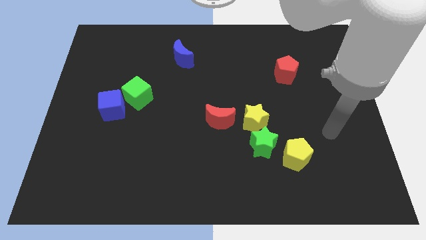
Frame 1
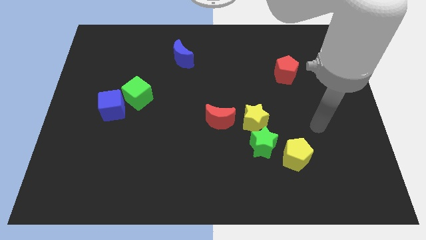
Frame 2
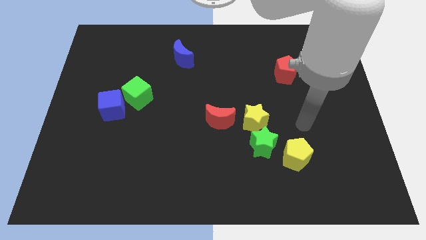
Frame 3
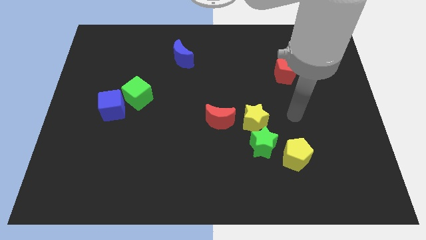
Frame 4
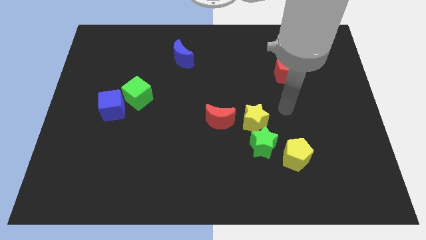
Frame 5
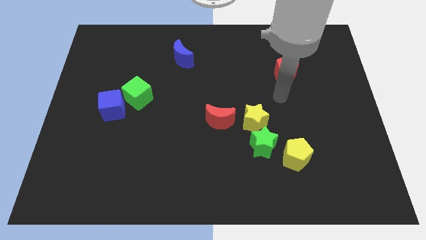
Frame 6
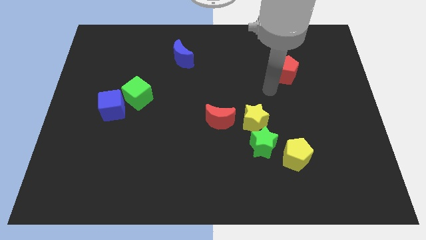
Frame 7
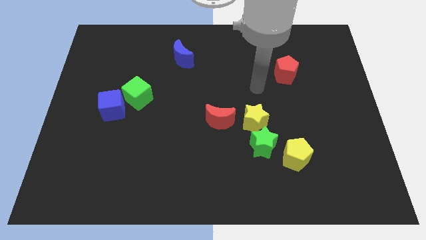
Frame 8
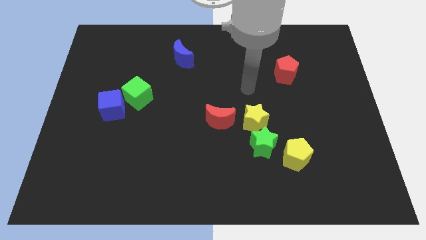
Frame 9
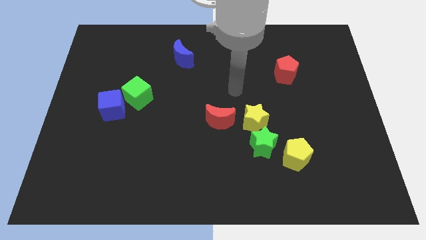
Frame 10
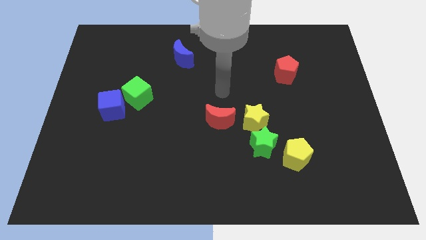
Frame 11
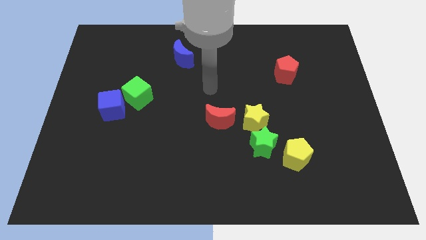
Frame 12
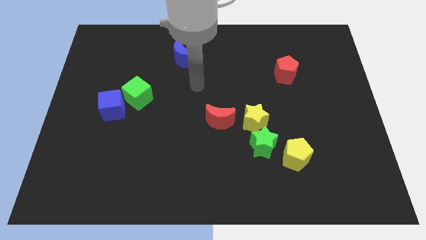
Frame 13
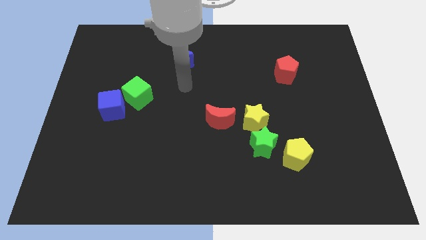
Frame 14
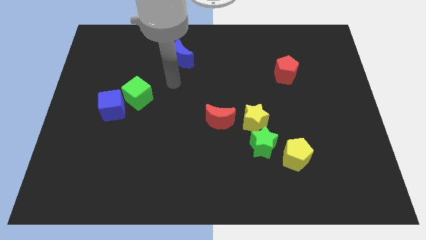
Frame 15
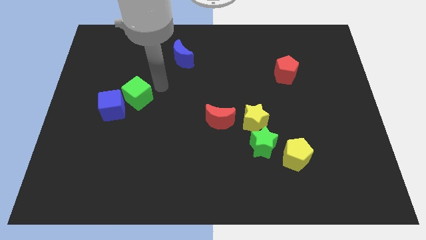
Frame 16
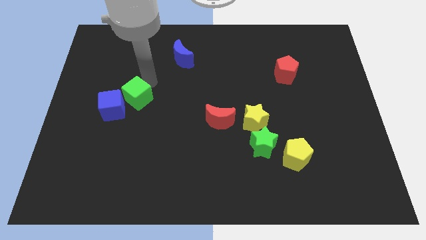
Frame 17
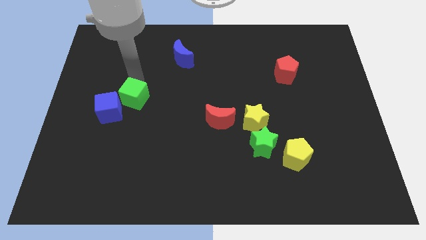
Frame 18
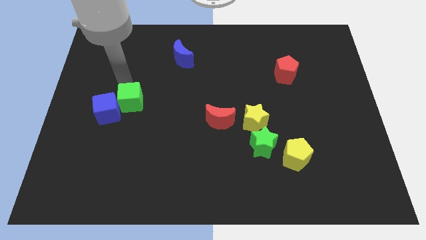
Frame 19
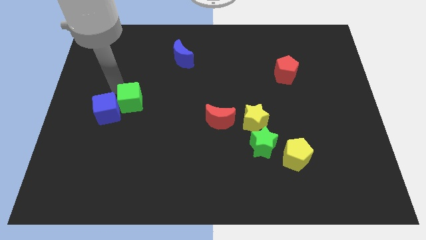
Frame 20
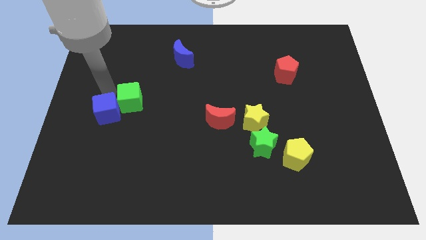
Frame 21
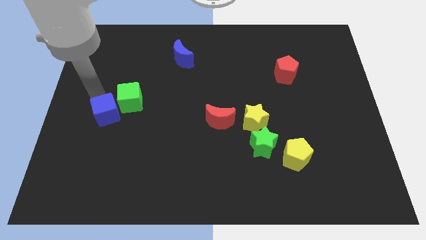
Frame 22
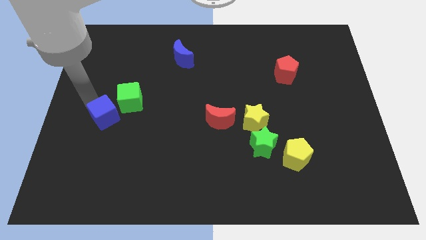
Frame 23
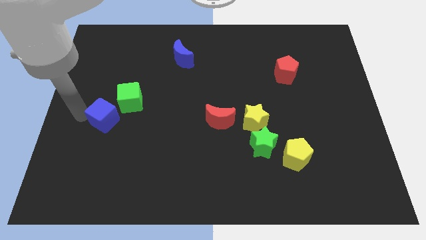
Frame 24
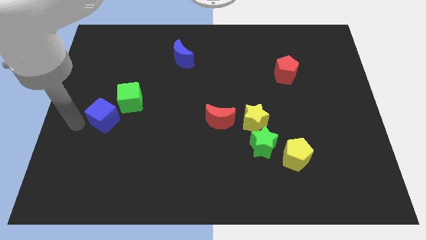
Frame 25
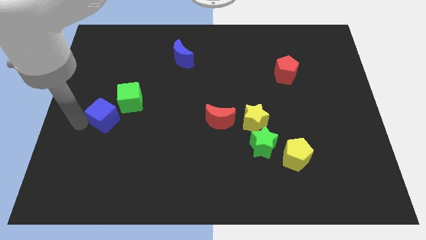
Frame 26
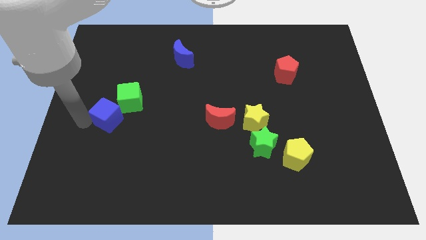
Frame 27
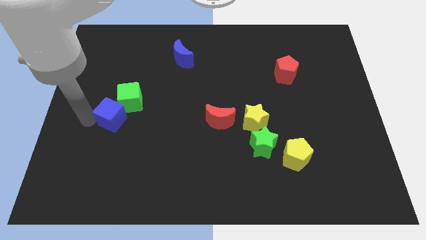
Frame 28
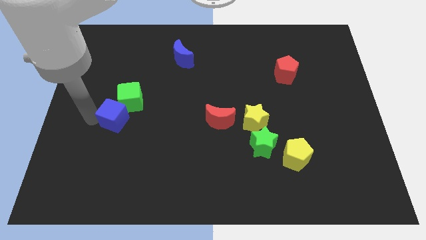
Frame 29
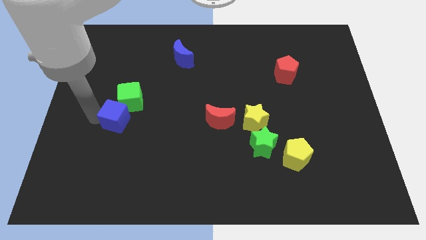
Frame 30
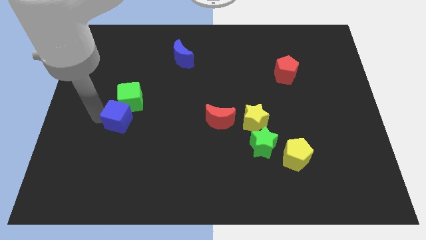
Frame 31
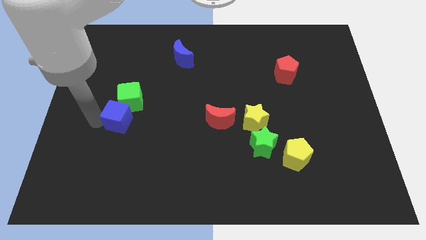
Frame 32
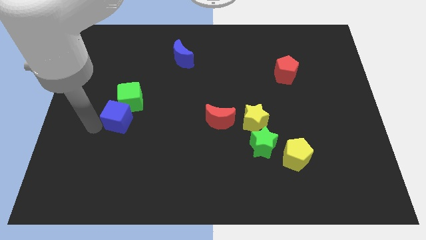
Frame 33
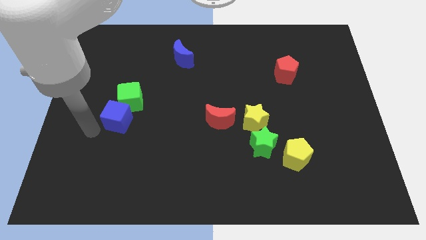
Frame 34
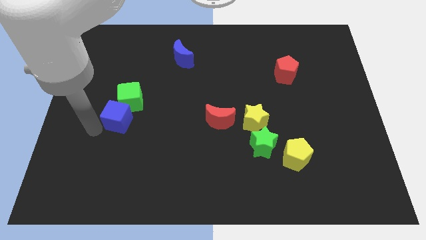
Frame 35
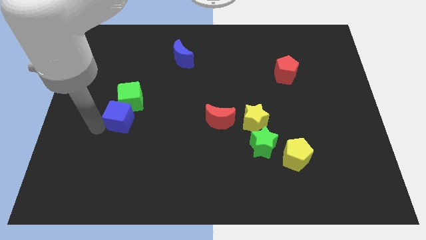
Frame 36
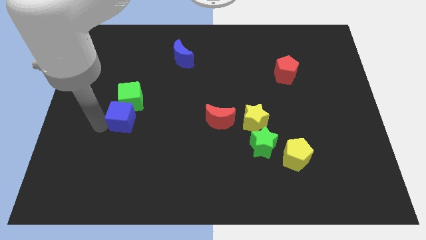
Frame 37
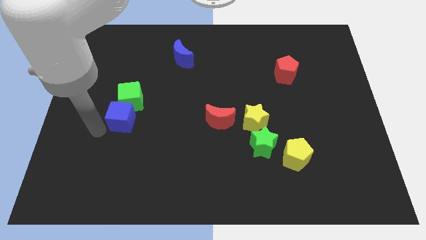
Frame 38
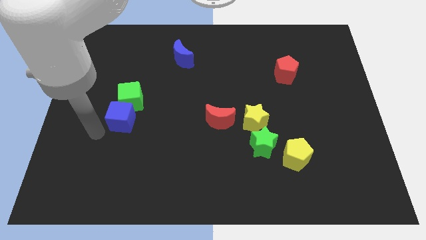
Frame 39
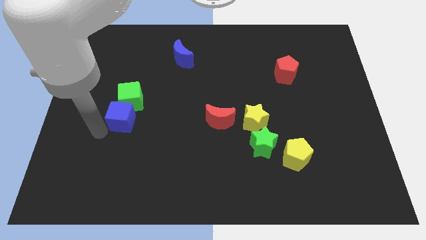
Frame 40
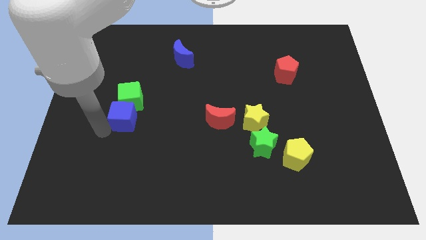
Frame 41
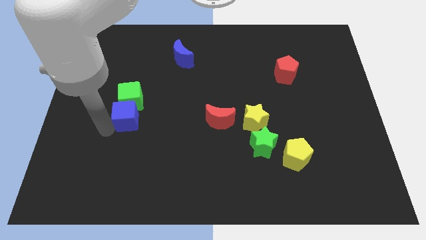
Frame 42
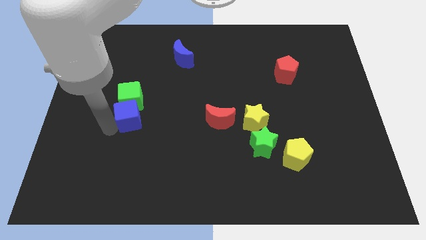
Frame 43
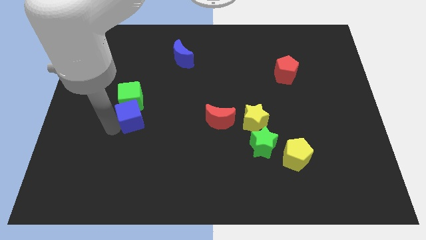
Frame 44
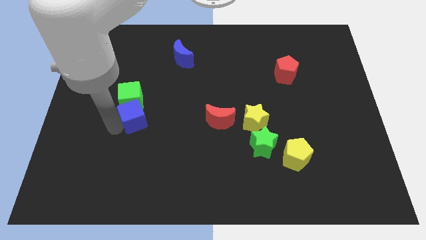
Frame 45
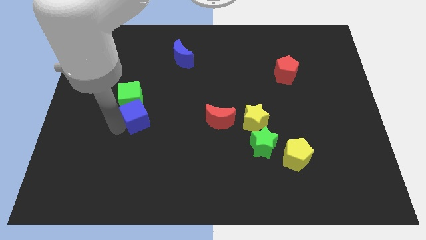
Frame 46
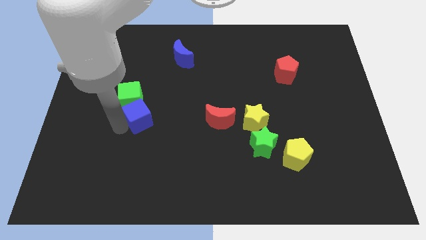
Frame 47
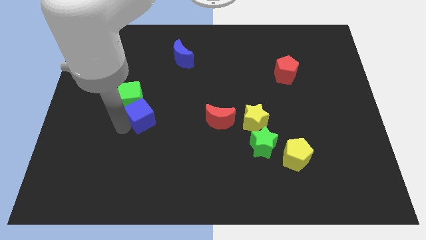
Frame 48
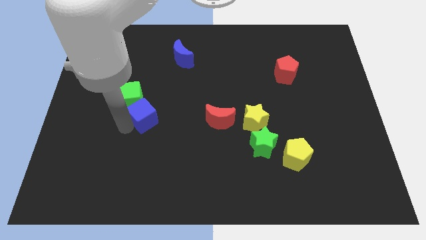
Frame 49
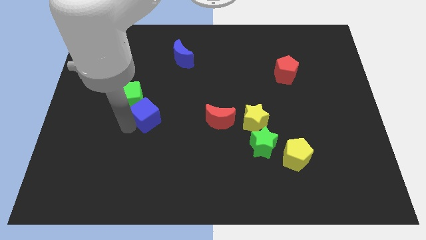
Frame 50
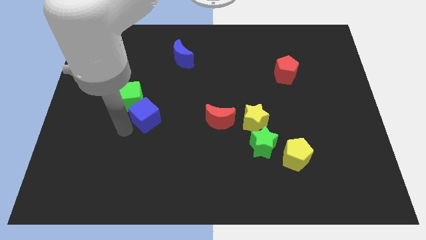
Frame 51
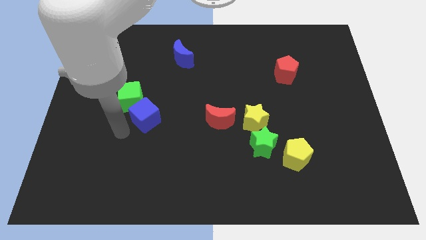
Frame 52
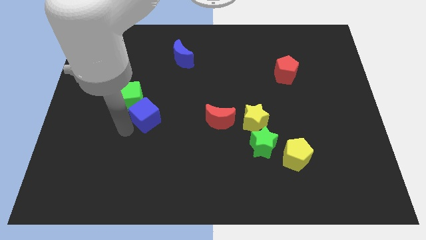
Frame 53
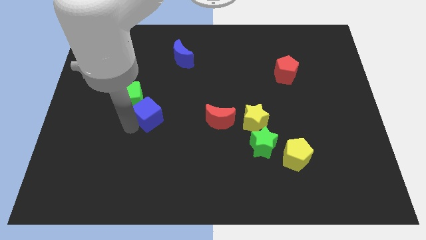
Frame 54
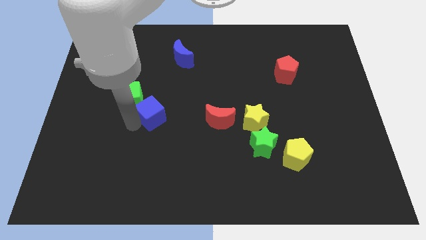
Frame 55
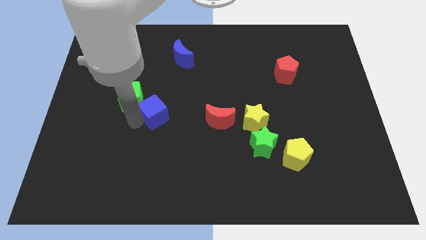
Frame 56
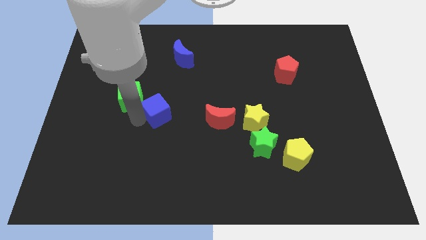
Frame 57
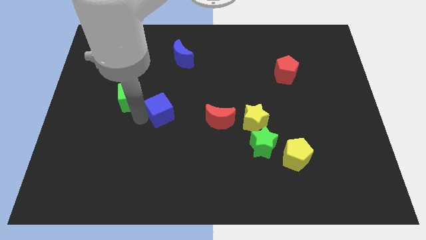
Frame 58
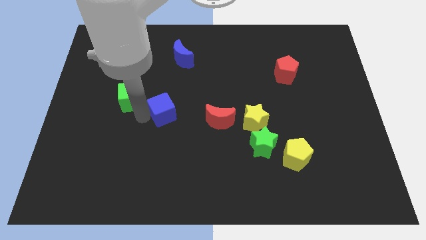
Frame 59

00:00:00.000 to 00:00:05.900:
put the blue cube to the middle
